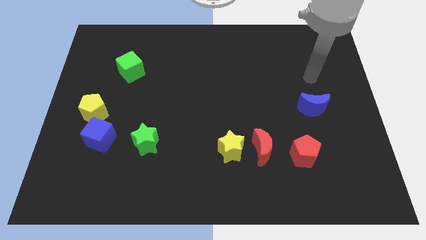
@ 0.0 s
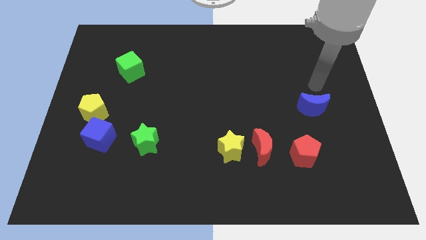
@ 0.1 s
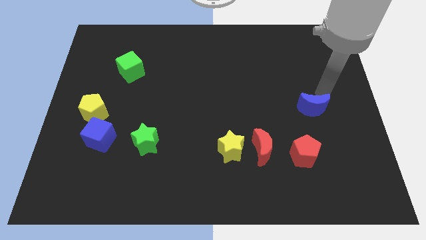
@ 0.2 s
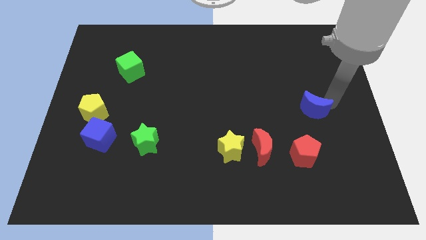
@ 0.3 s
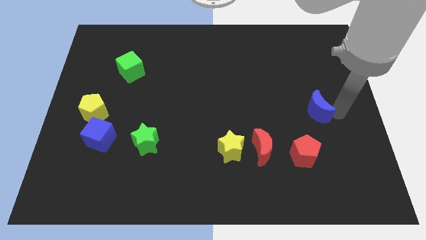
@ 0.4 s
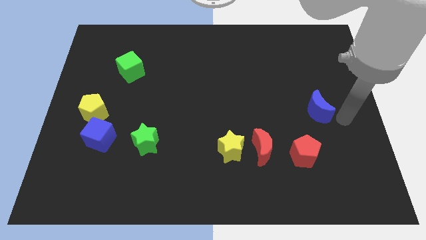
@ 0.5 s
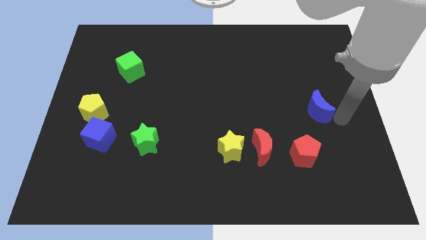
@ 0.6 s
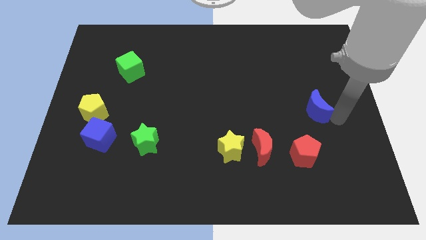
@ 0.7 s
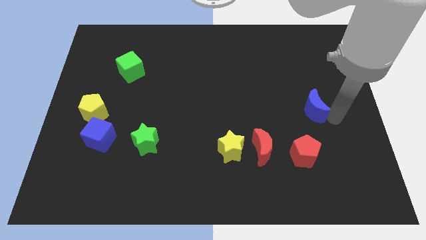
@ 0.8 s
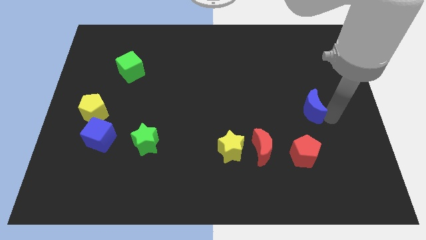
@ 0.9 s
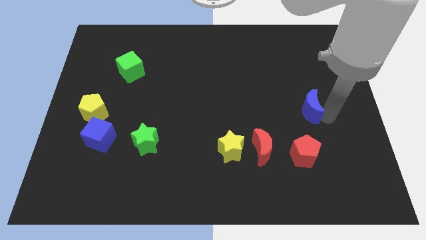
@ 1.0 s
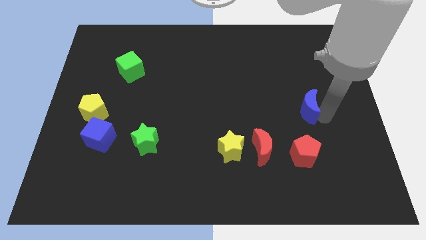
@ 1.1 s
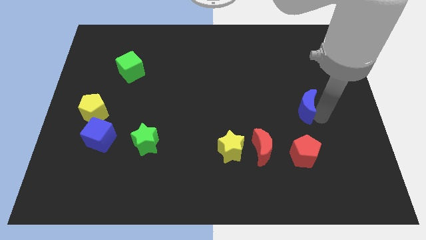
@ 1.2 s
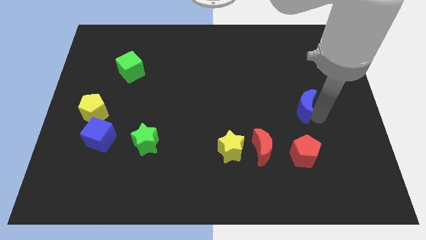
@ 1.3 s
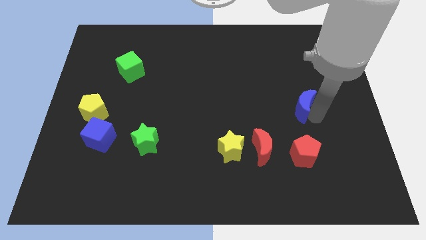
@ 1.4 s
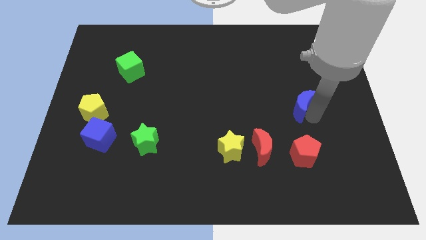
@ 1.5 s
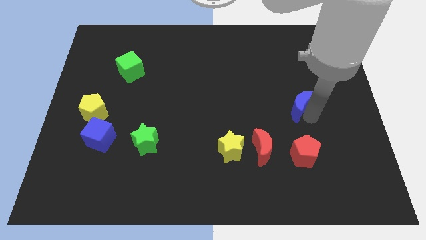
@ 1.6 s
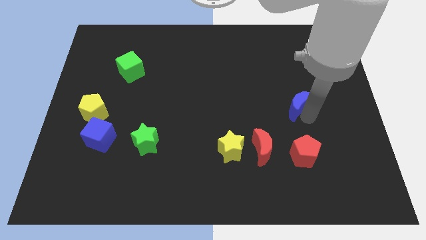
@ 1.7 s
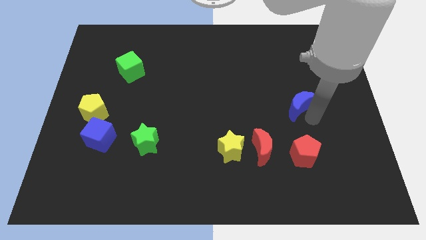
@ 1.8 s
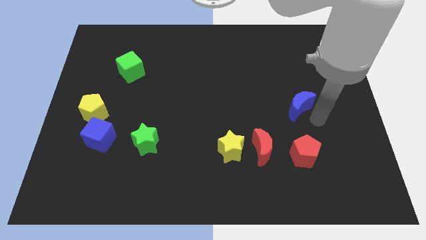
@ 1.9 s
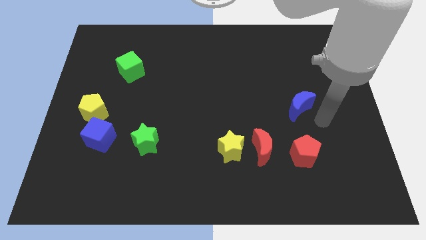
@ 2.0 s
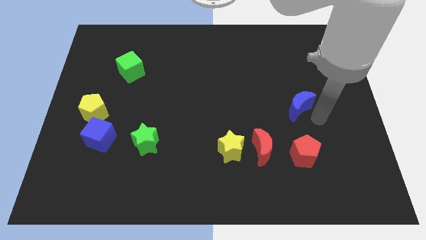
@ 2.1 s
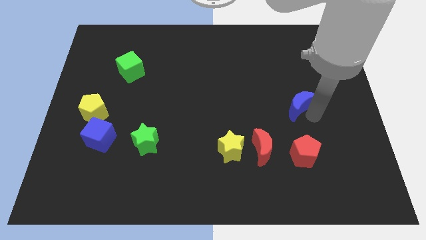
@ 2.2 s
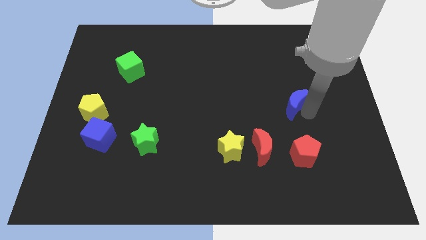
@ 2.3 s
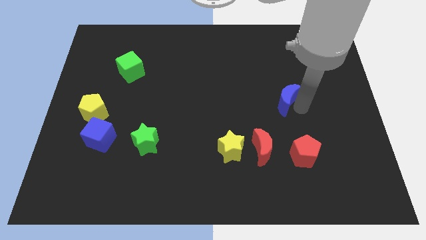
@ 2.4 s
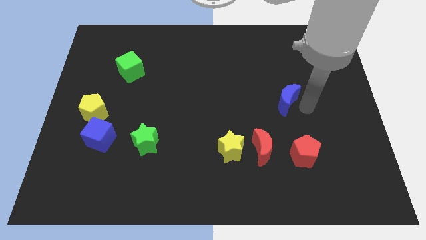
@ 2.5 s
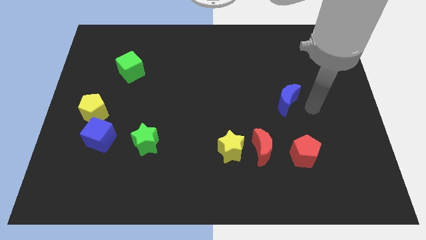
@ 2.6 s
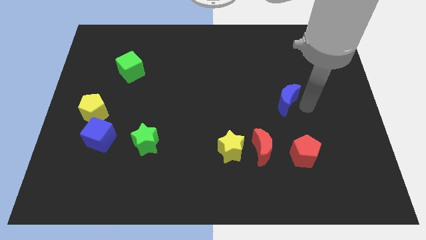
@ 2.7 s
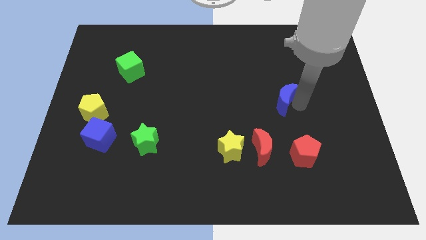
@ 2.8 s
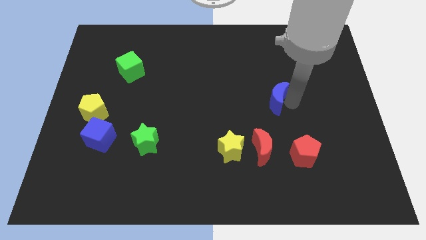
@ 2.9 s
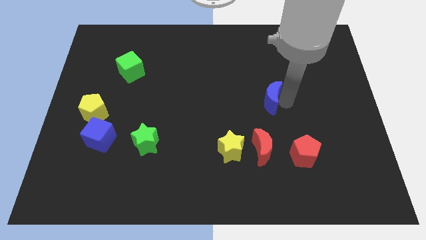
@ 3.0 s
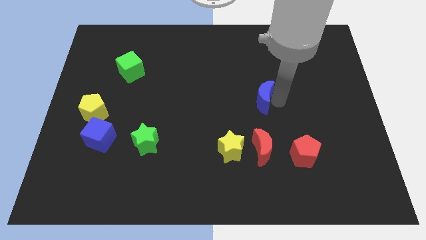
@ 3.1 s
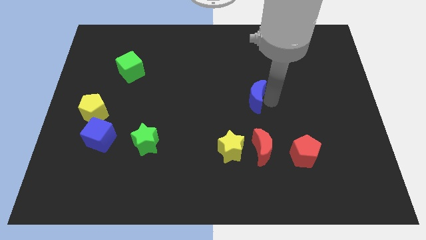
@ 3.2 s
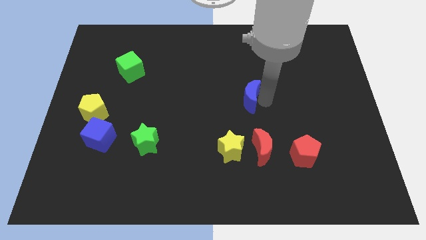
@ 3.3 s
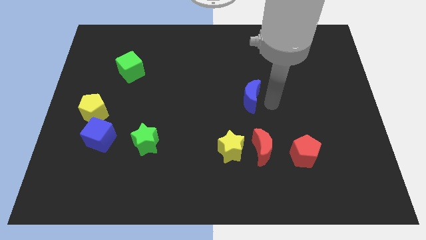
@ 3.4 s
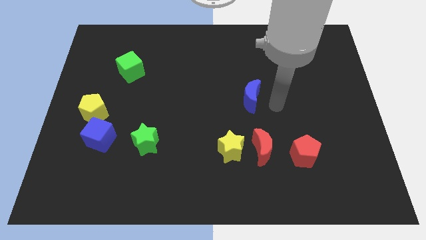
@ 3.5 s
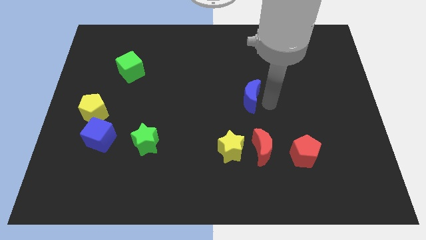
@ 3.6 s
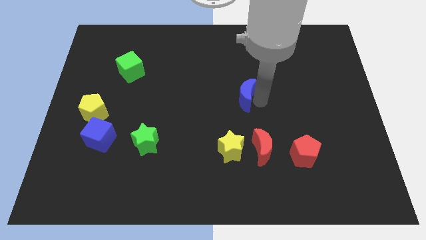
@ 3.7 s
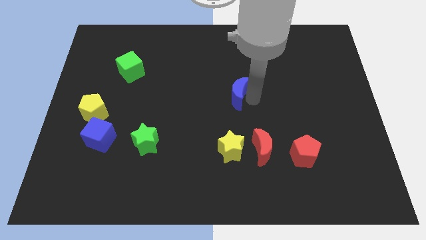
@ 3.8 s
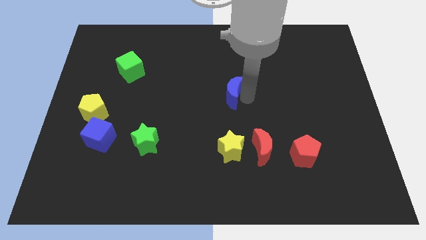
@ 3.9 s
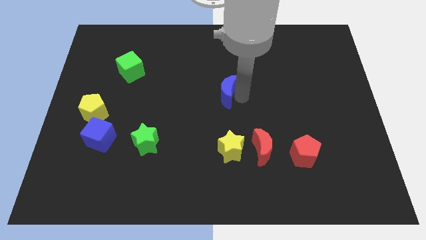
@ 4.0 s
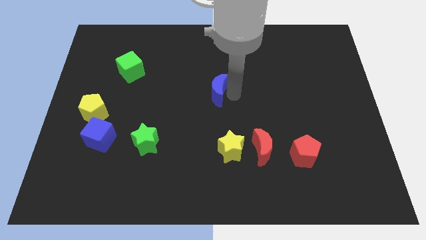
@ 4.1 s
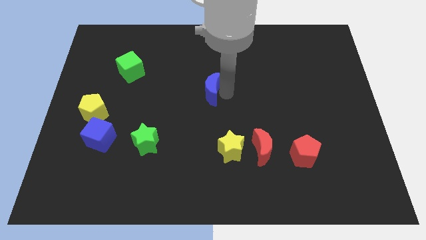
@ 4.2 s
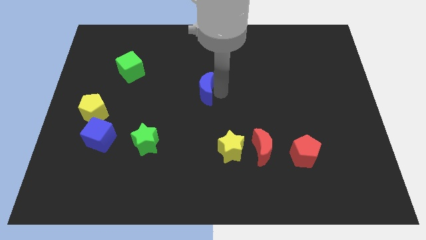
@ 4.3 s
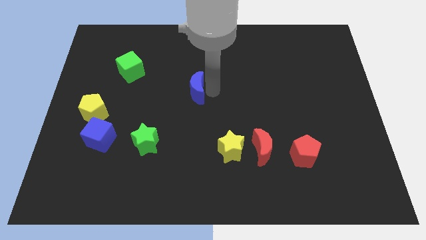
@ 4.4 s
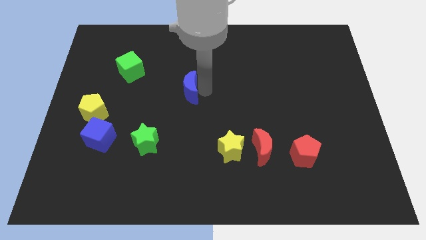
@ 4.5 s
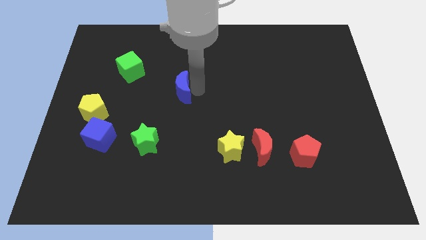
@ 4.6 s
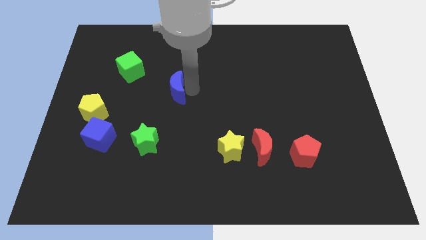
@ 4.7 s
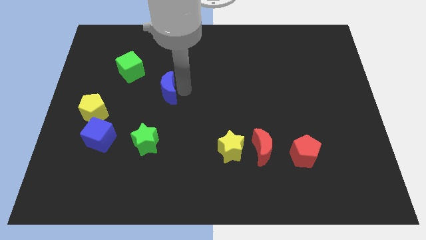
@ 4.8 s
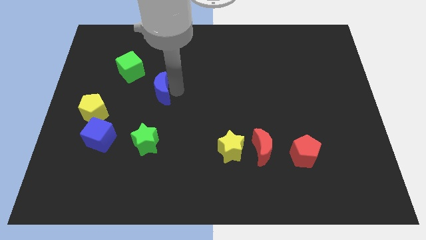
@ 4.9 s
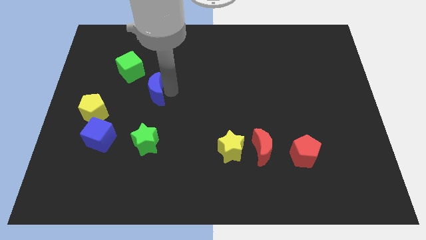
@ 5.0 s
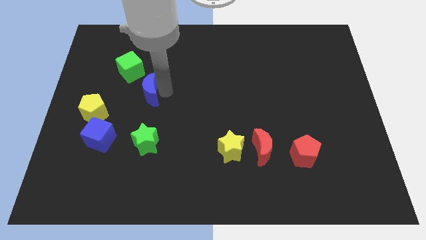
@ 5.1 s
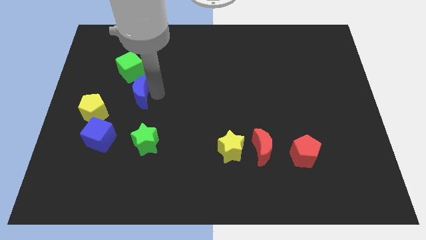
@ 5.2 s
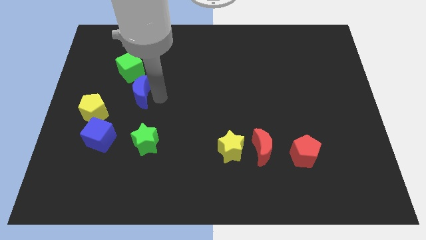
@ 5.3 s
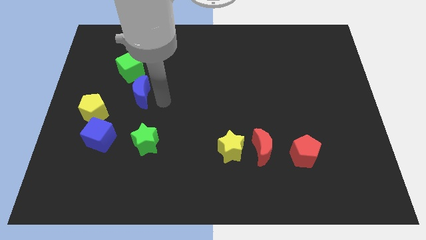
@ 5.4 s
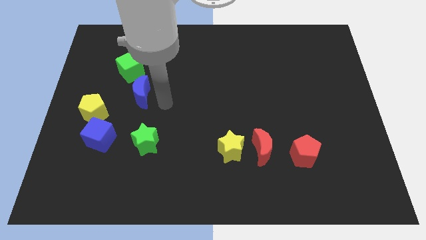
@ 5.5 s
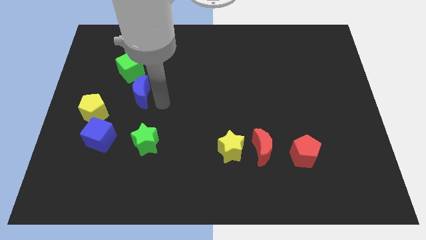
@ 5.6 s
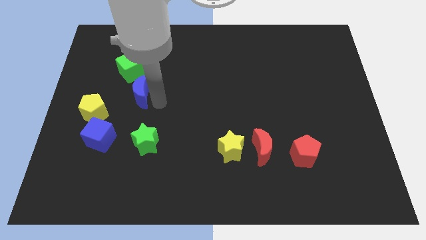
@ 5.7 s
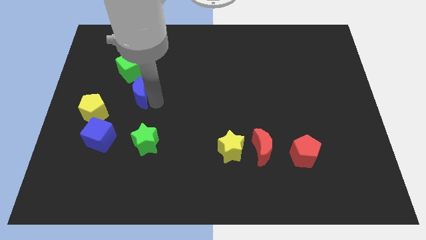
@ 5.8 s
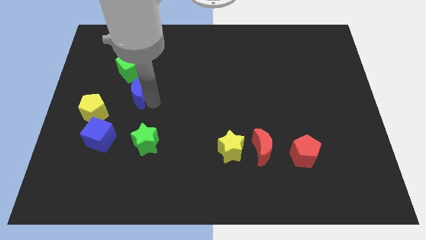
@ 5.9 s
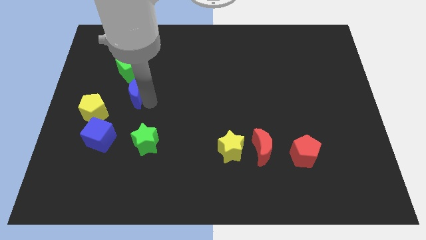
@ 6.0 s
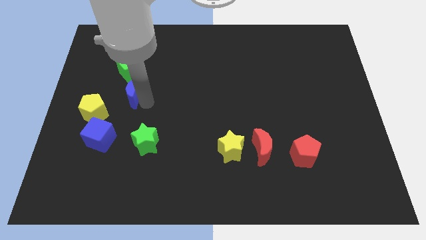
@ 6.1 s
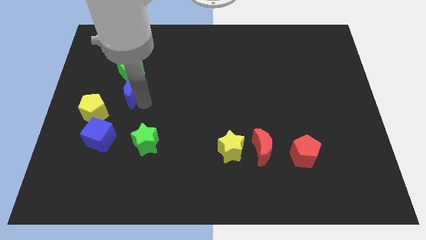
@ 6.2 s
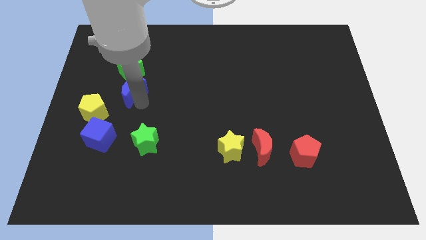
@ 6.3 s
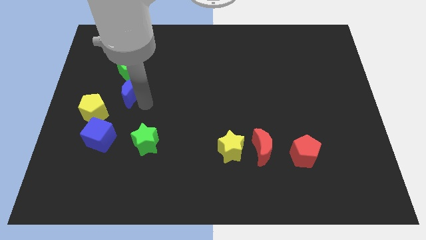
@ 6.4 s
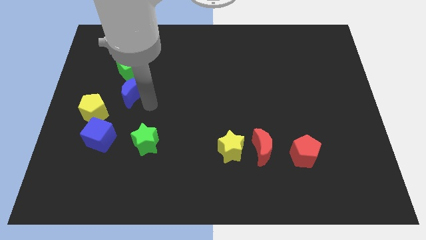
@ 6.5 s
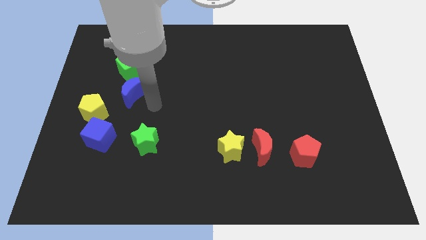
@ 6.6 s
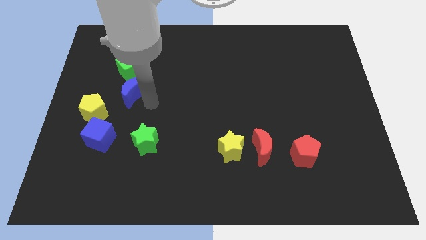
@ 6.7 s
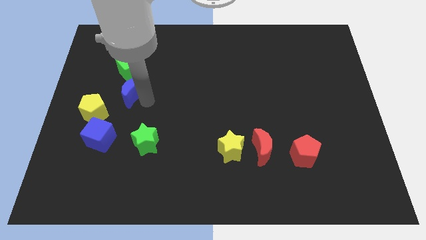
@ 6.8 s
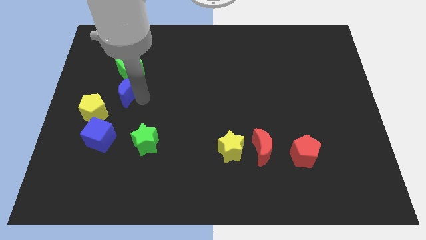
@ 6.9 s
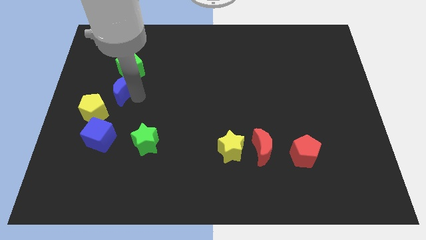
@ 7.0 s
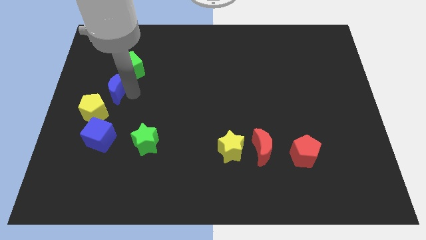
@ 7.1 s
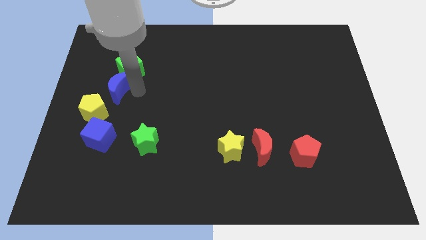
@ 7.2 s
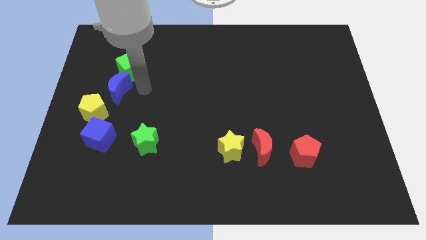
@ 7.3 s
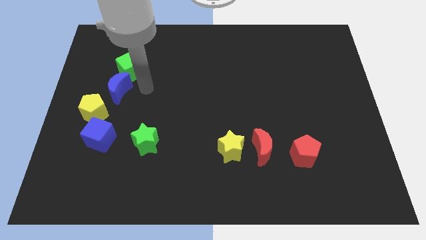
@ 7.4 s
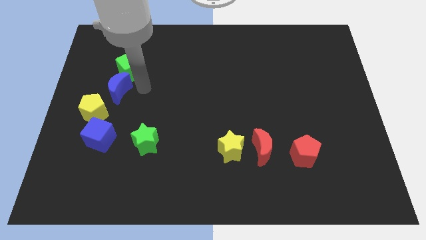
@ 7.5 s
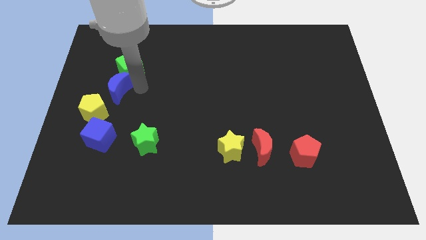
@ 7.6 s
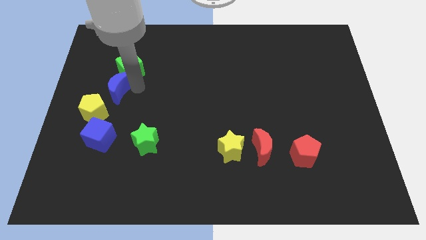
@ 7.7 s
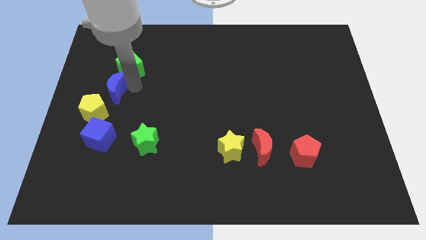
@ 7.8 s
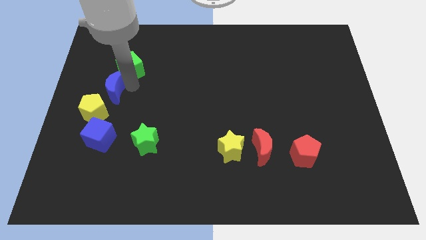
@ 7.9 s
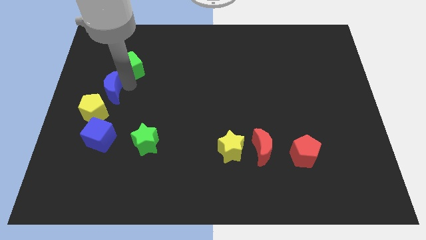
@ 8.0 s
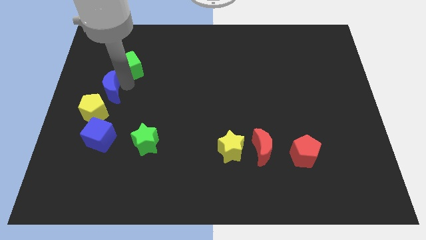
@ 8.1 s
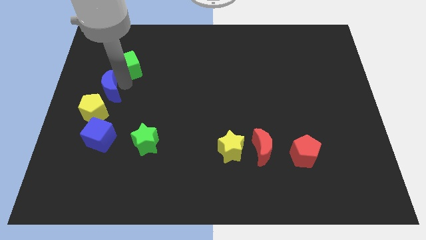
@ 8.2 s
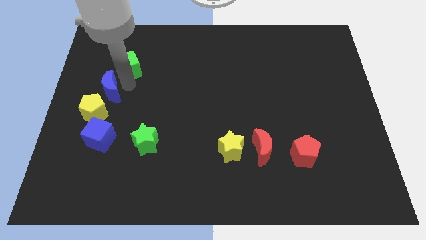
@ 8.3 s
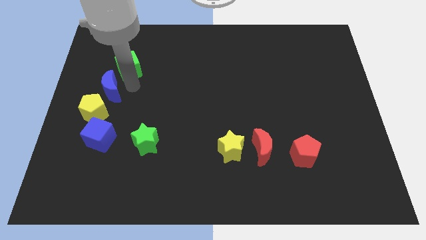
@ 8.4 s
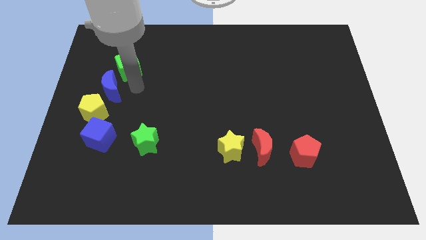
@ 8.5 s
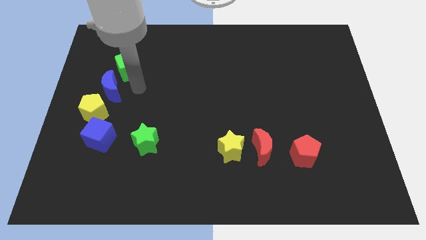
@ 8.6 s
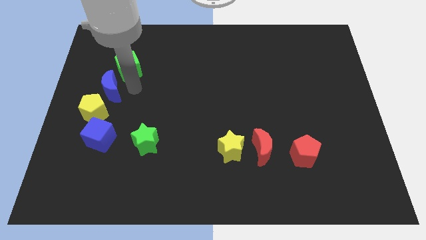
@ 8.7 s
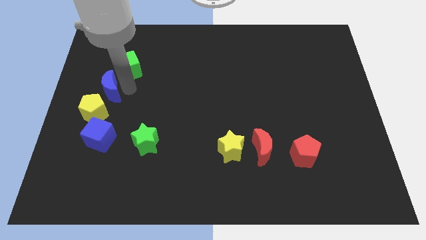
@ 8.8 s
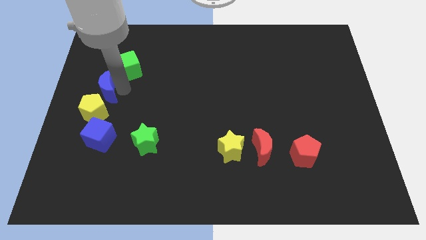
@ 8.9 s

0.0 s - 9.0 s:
put the blue moon to the left side of the board
